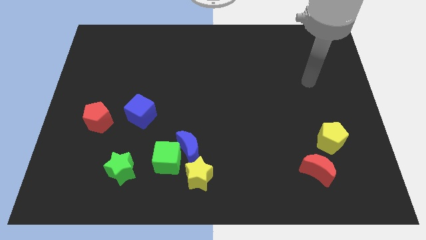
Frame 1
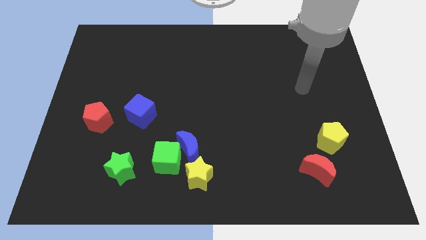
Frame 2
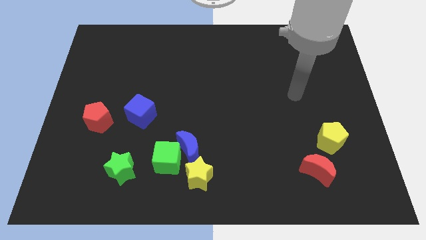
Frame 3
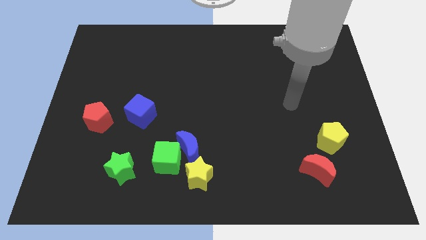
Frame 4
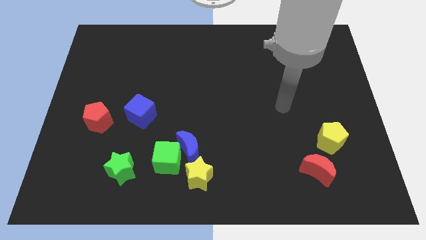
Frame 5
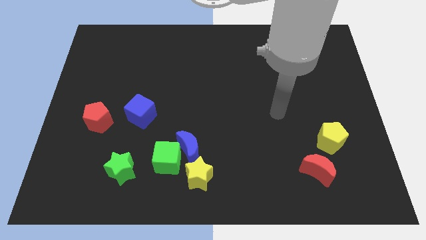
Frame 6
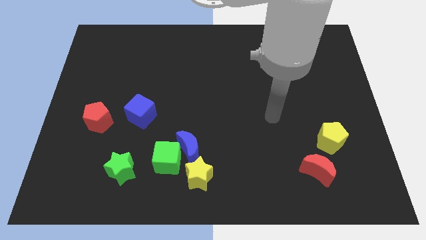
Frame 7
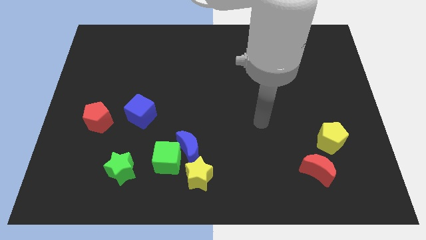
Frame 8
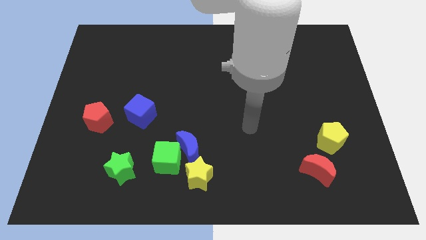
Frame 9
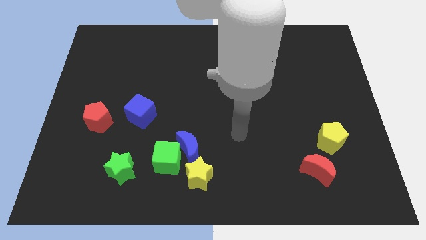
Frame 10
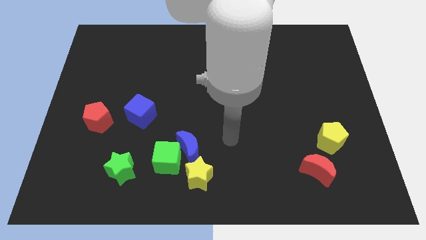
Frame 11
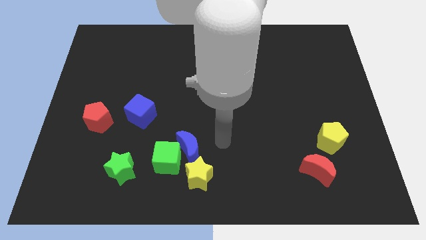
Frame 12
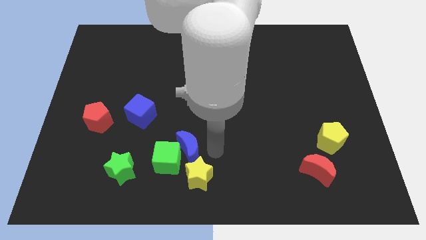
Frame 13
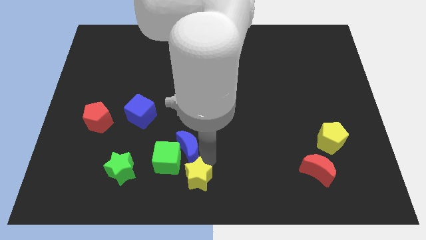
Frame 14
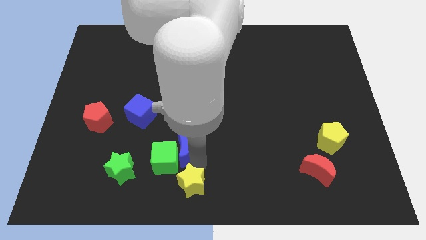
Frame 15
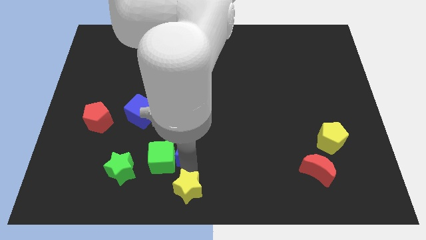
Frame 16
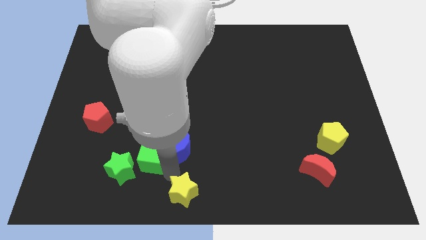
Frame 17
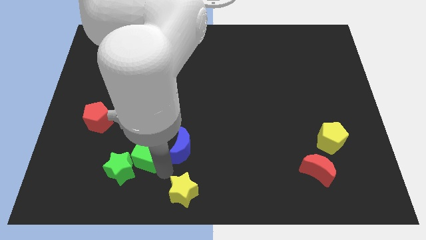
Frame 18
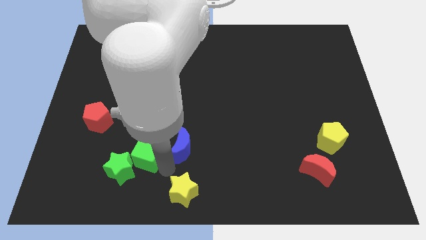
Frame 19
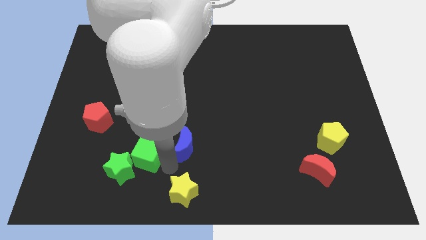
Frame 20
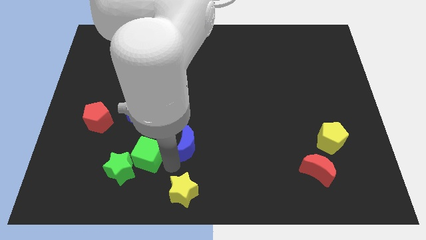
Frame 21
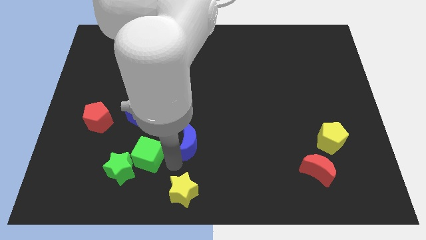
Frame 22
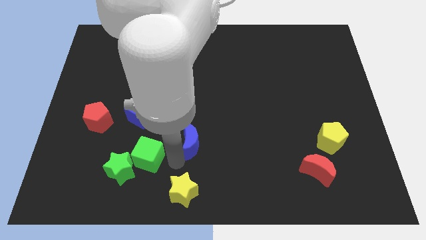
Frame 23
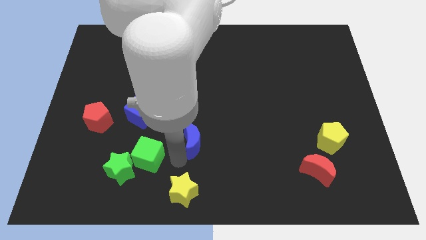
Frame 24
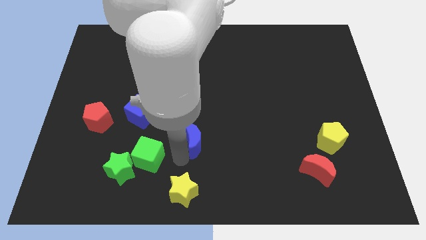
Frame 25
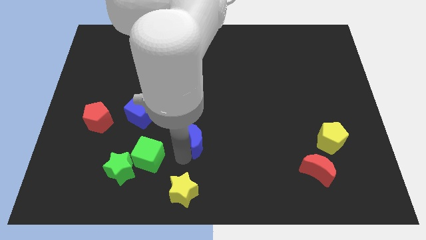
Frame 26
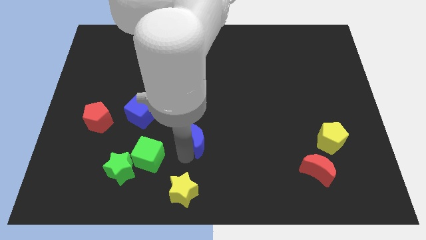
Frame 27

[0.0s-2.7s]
move the blue moon away from the green cube and yellow star

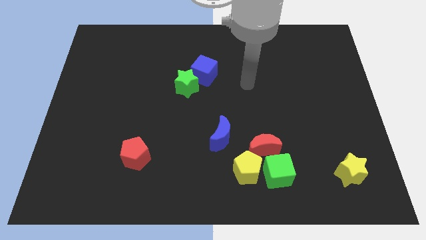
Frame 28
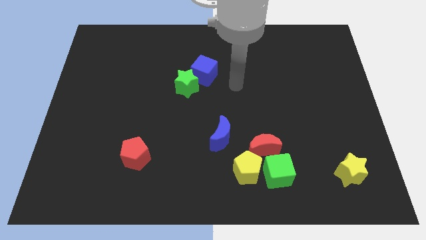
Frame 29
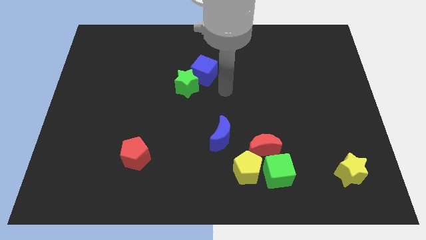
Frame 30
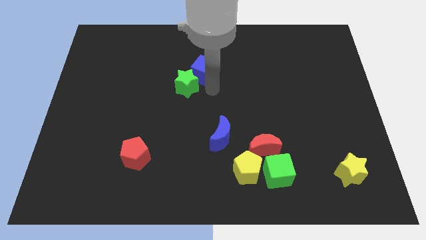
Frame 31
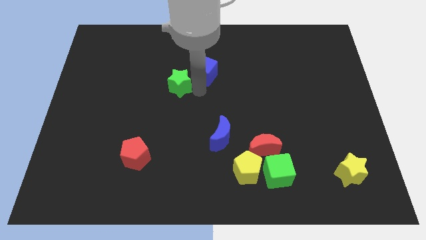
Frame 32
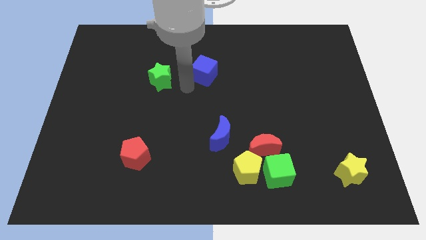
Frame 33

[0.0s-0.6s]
separate the blue cube from the green star

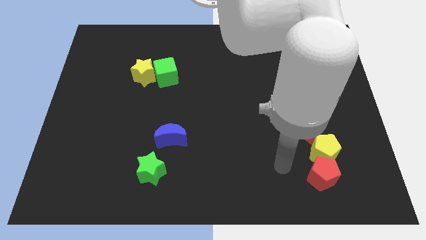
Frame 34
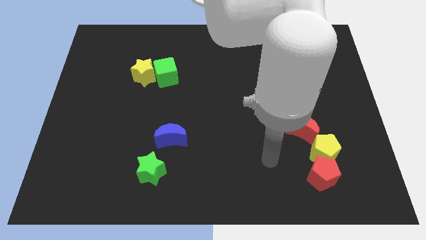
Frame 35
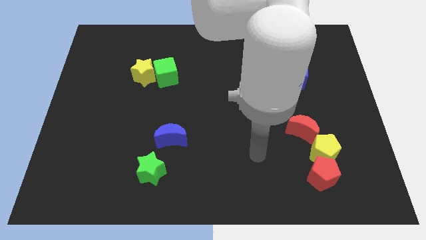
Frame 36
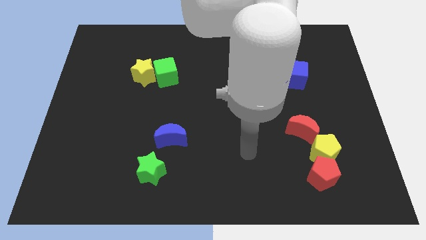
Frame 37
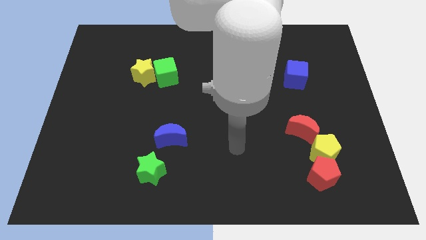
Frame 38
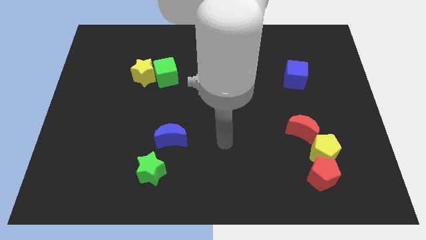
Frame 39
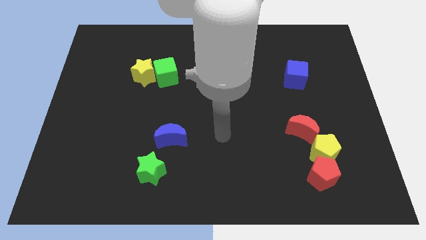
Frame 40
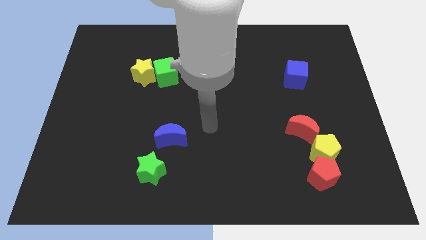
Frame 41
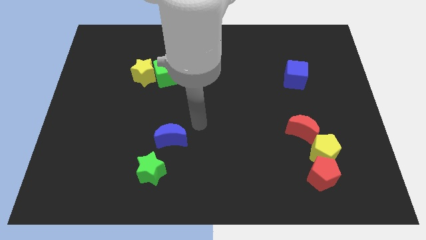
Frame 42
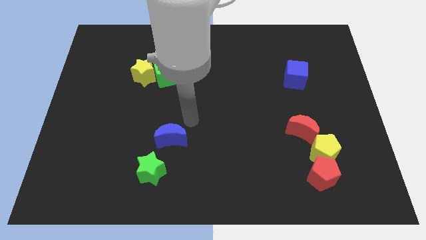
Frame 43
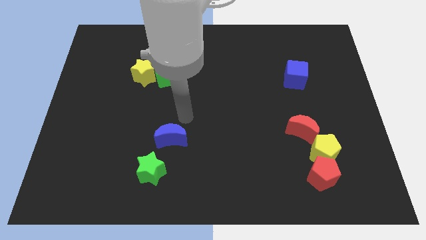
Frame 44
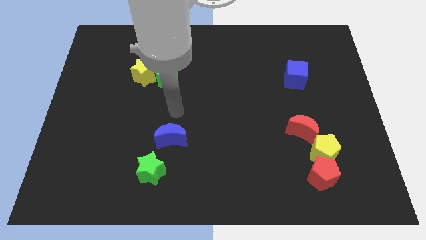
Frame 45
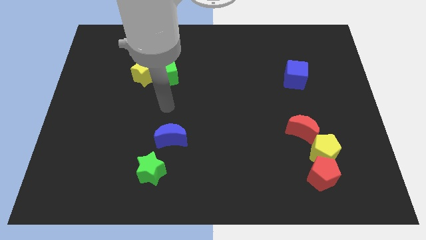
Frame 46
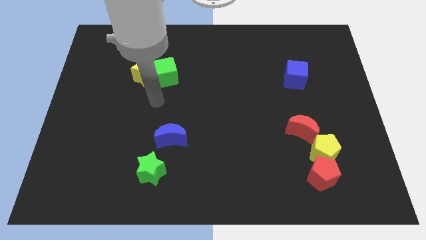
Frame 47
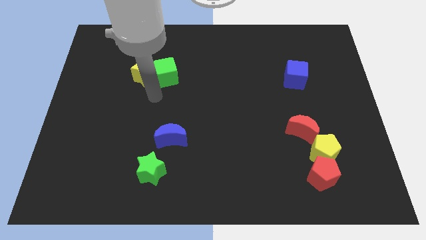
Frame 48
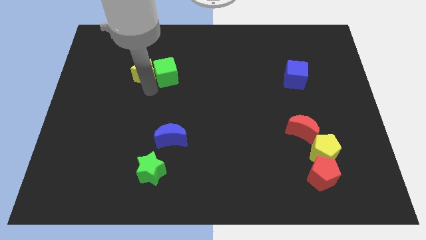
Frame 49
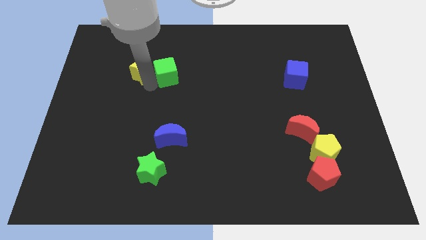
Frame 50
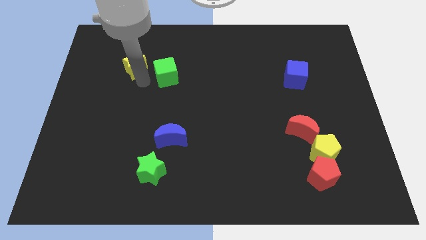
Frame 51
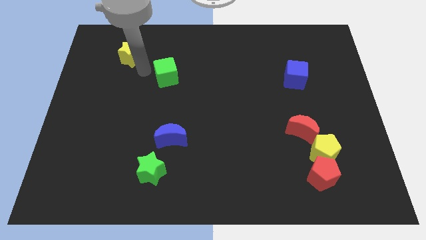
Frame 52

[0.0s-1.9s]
separate the green cube from the yellow star

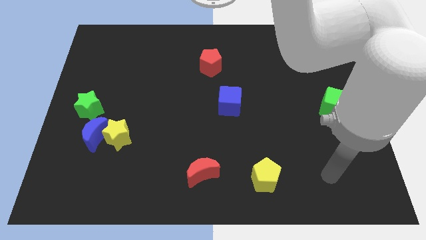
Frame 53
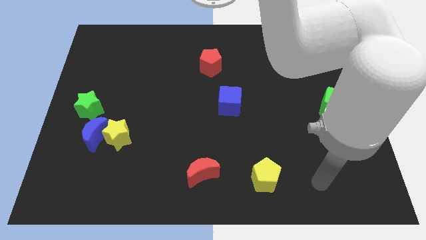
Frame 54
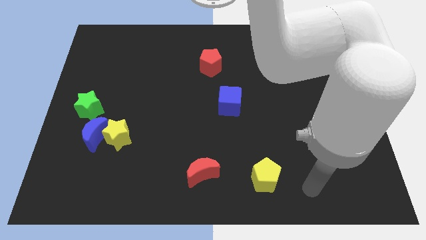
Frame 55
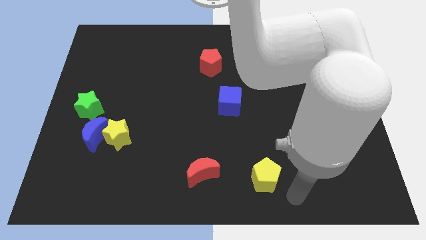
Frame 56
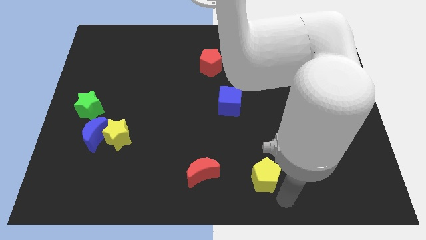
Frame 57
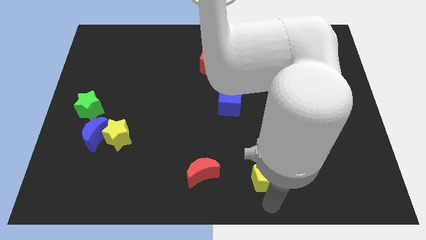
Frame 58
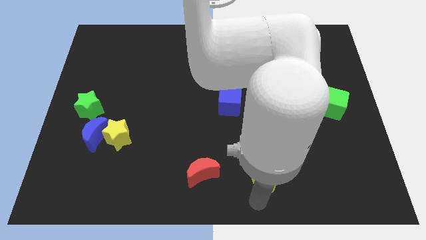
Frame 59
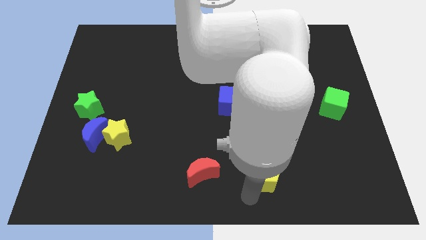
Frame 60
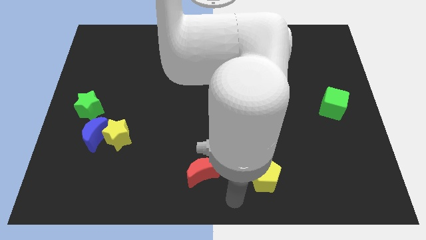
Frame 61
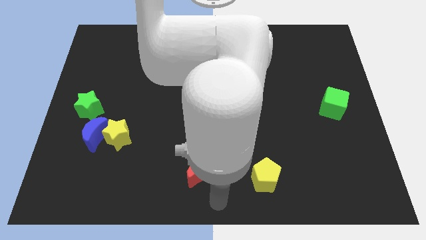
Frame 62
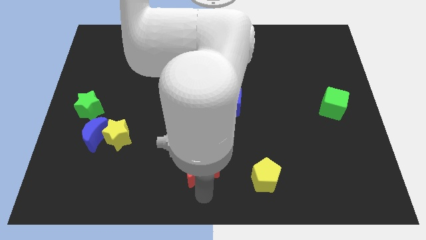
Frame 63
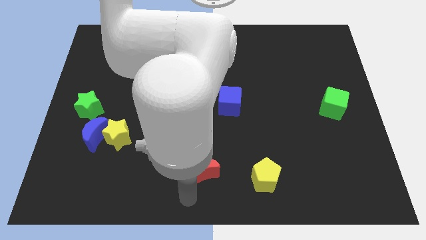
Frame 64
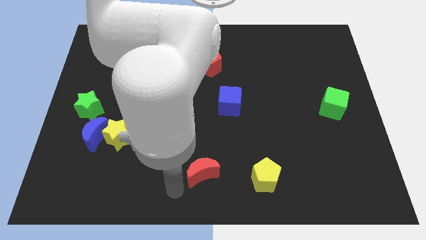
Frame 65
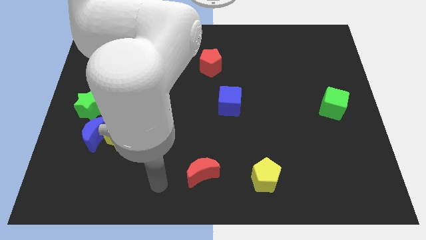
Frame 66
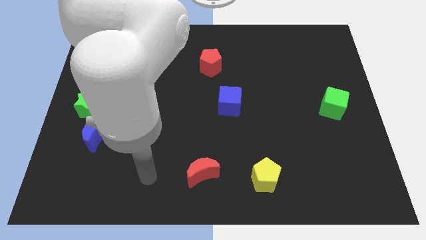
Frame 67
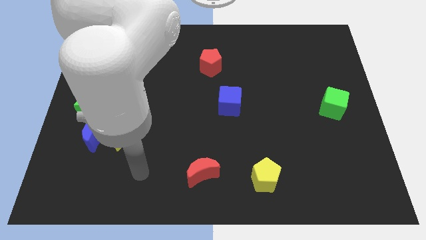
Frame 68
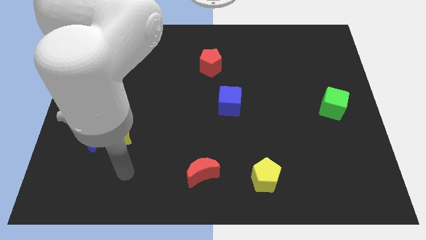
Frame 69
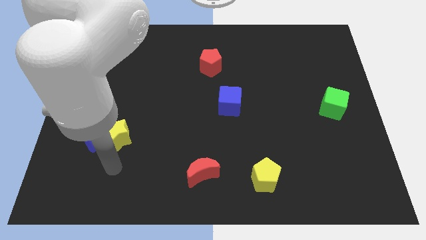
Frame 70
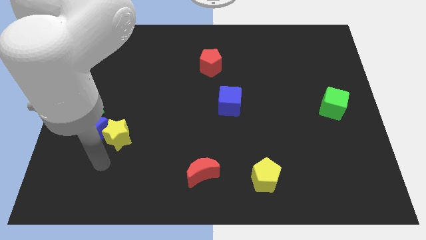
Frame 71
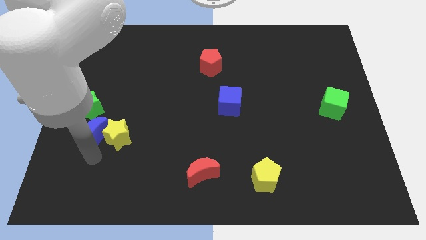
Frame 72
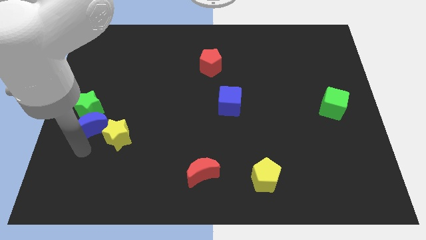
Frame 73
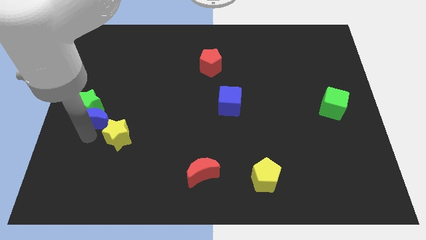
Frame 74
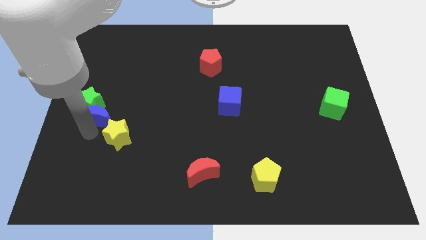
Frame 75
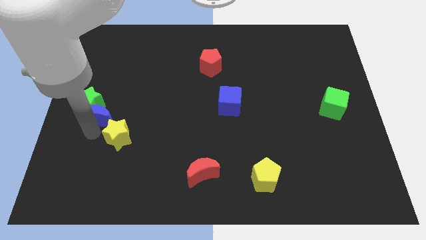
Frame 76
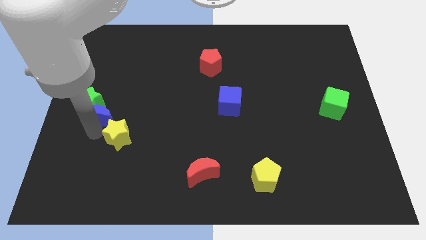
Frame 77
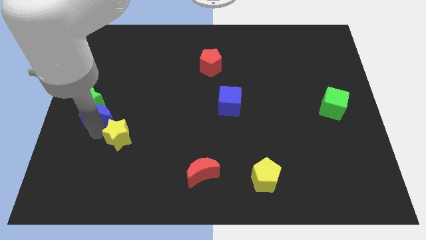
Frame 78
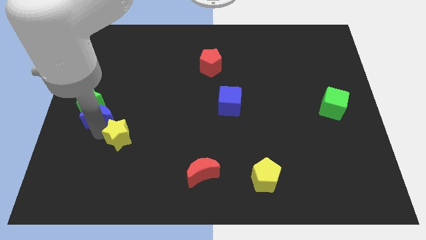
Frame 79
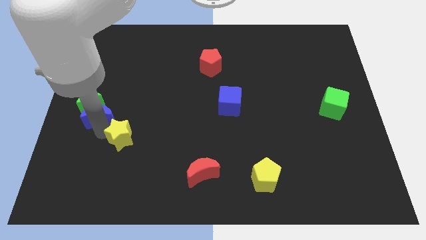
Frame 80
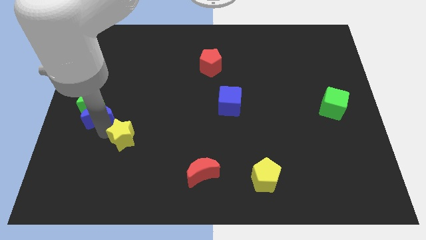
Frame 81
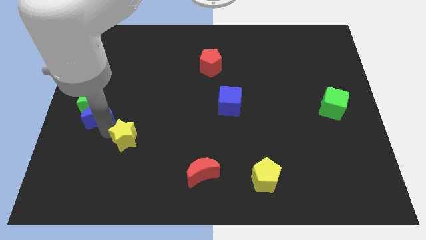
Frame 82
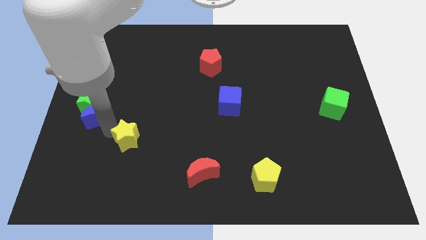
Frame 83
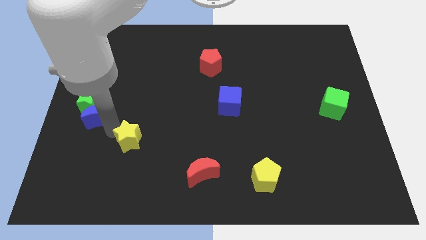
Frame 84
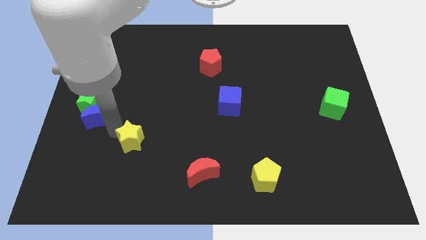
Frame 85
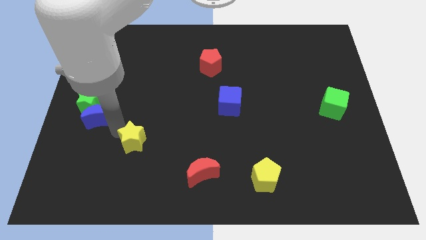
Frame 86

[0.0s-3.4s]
move the yellow star away from the blue moon

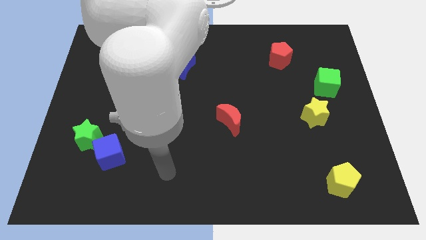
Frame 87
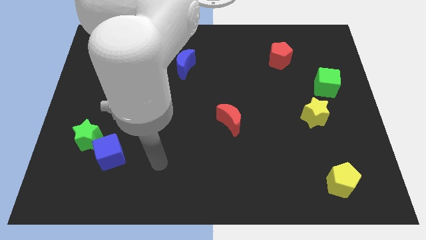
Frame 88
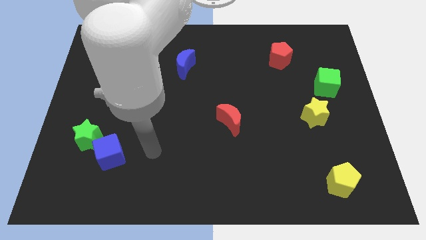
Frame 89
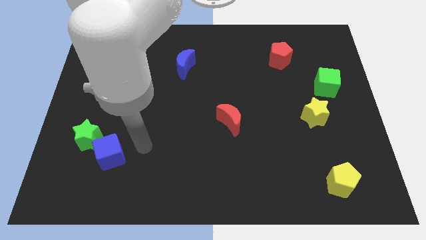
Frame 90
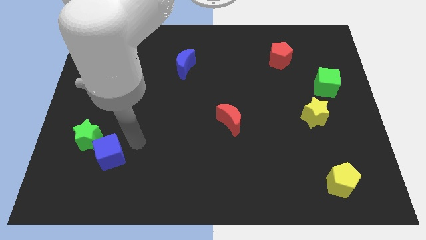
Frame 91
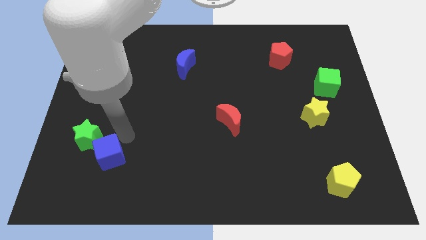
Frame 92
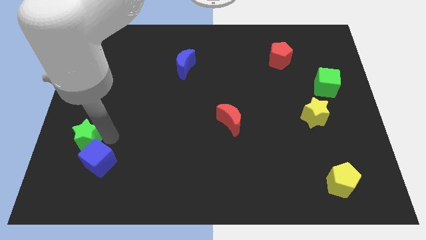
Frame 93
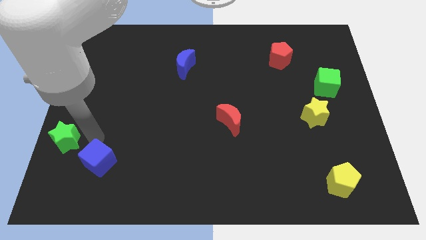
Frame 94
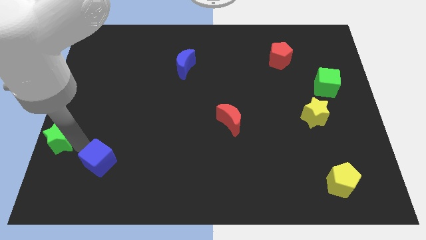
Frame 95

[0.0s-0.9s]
pull the blue cube apart from the green star
